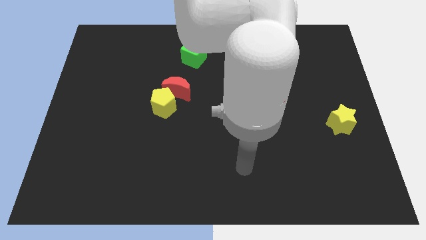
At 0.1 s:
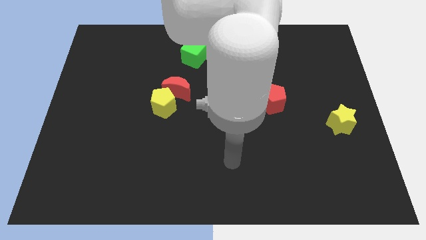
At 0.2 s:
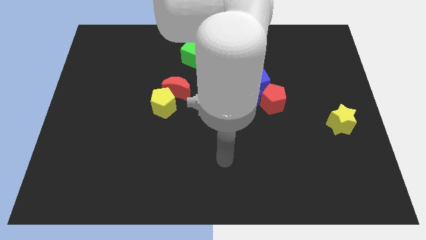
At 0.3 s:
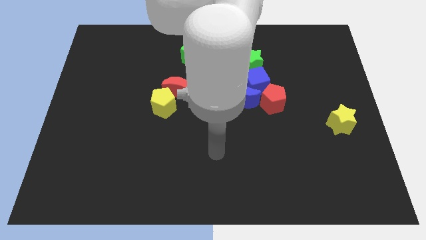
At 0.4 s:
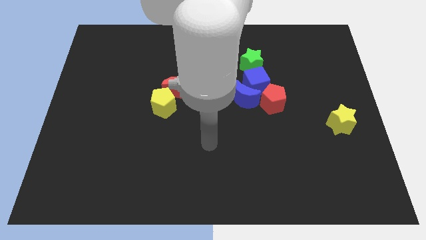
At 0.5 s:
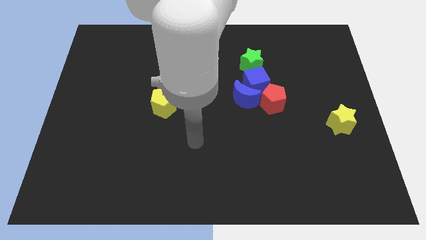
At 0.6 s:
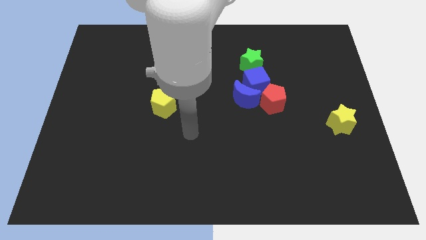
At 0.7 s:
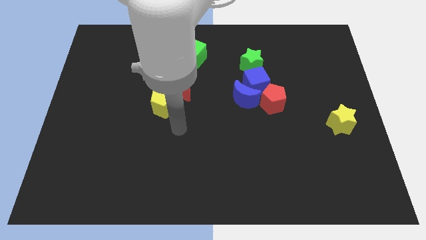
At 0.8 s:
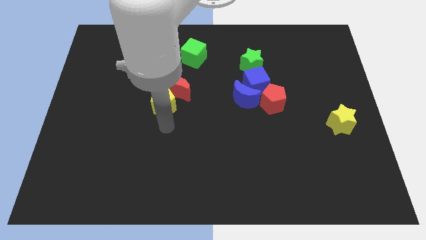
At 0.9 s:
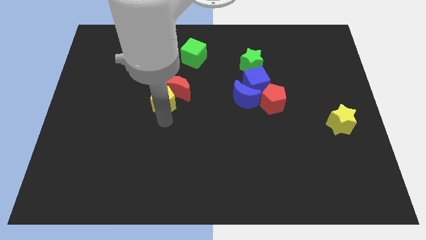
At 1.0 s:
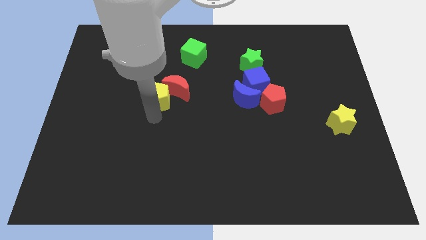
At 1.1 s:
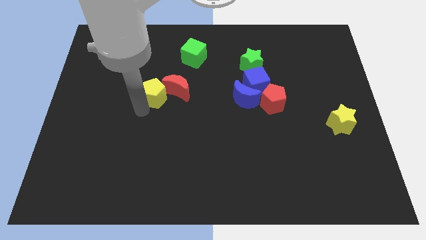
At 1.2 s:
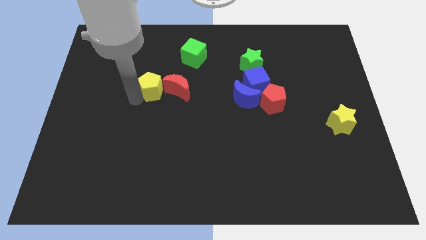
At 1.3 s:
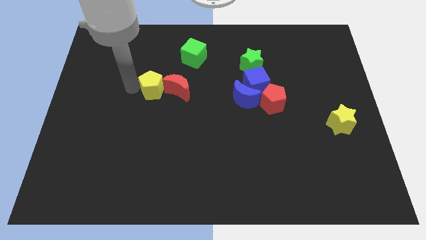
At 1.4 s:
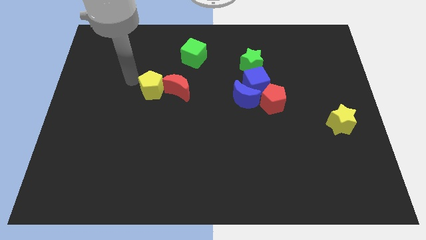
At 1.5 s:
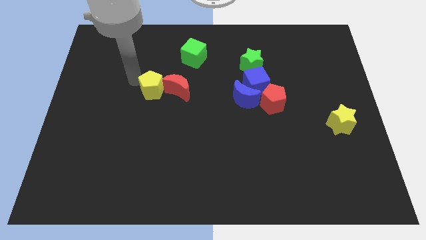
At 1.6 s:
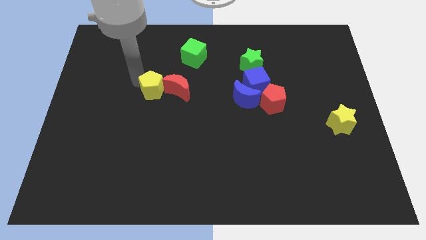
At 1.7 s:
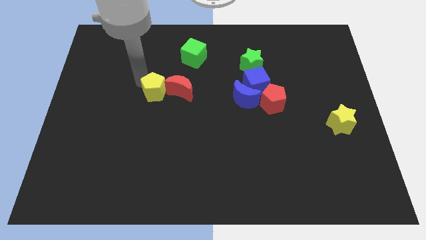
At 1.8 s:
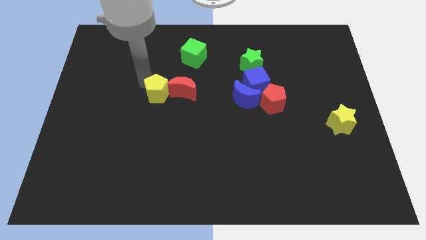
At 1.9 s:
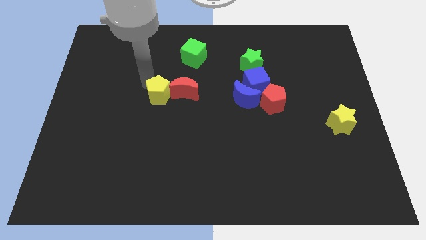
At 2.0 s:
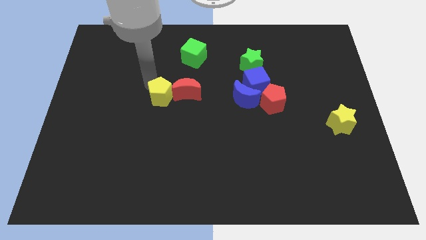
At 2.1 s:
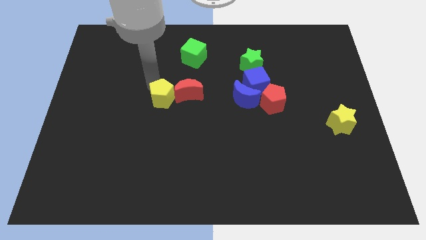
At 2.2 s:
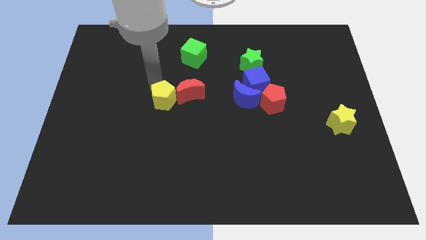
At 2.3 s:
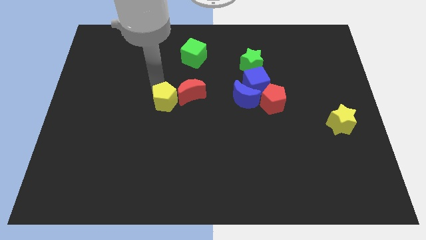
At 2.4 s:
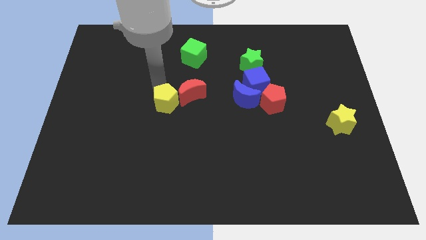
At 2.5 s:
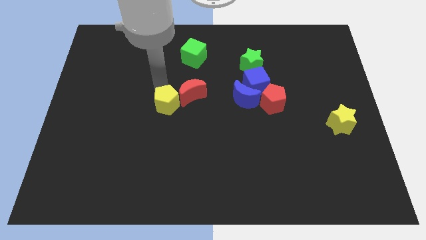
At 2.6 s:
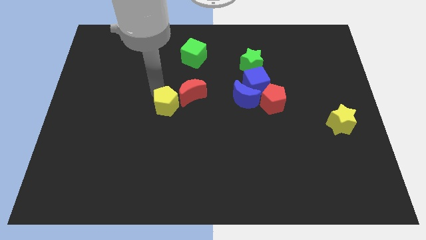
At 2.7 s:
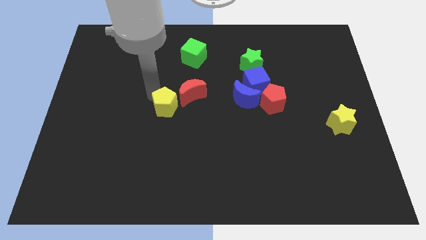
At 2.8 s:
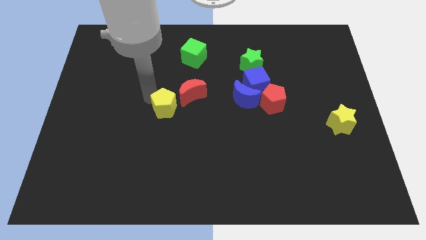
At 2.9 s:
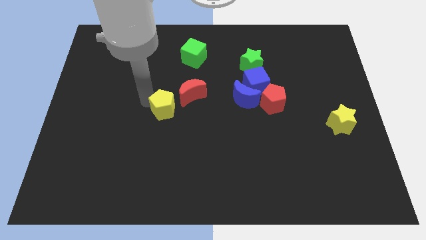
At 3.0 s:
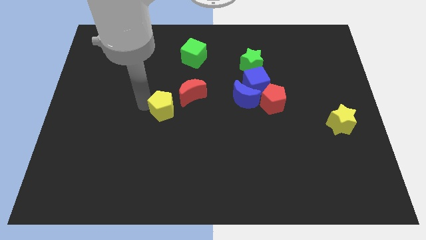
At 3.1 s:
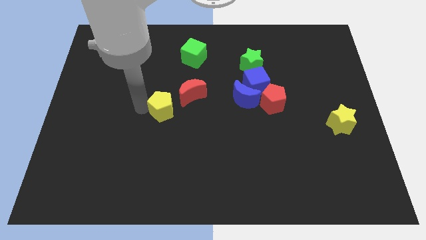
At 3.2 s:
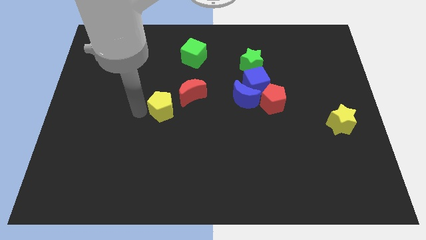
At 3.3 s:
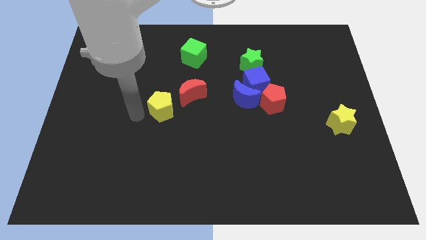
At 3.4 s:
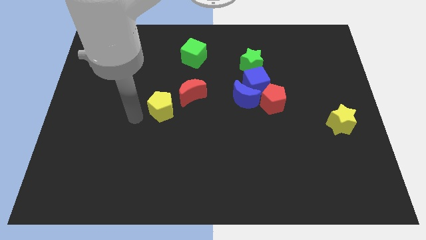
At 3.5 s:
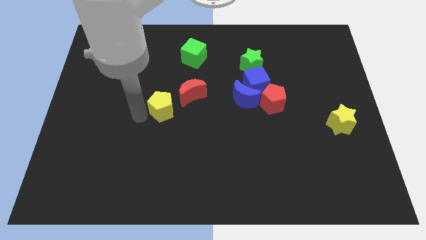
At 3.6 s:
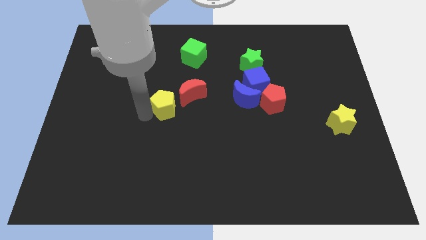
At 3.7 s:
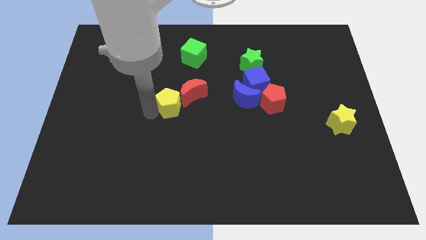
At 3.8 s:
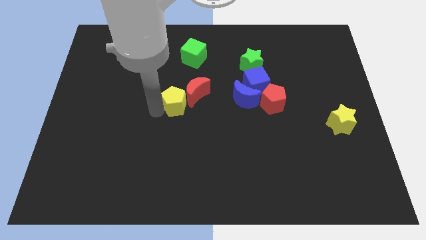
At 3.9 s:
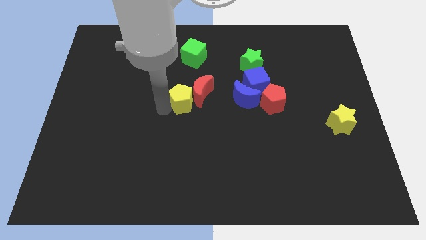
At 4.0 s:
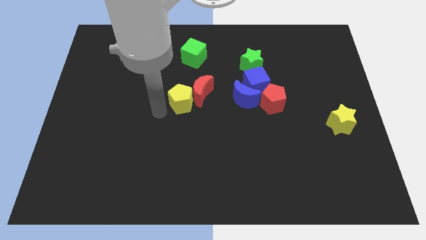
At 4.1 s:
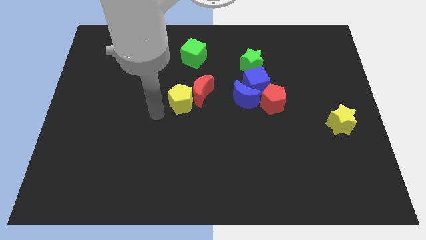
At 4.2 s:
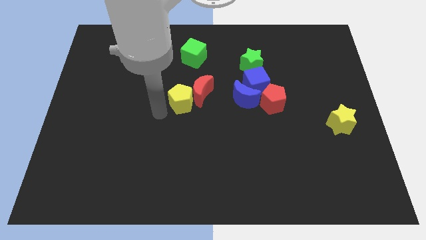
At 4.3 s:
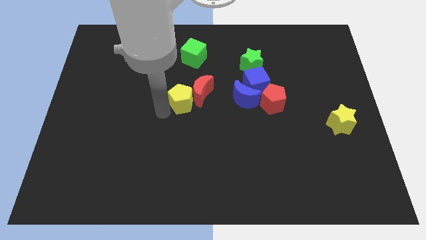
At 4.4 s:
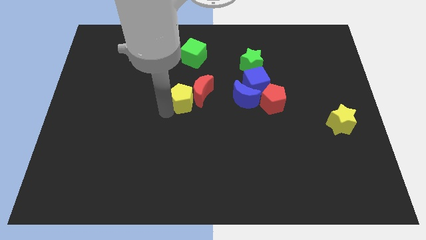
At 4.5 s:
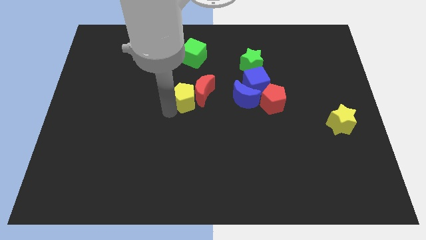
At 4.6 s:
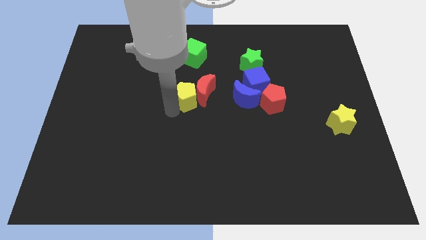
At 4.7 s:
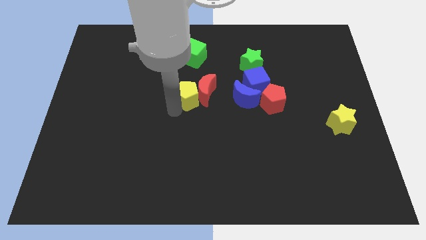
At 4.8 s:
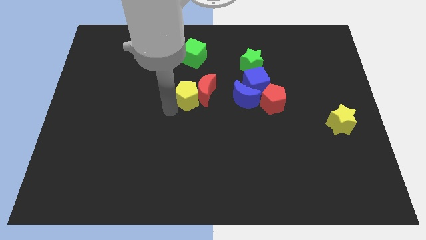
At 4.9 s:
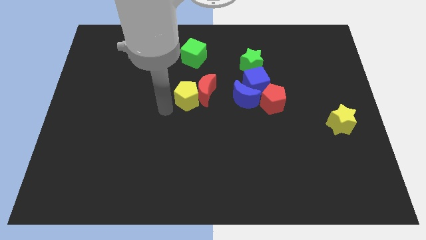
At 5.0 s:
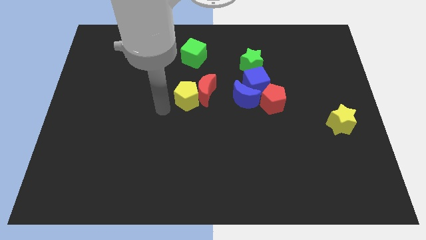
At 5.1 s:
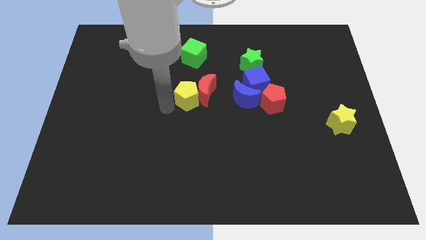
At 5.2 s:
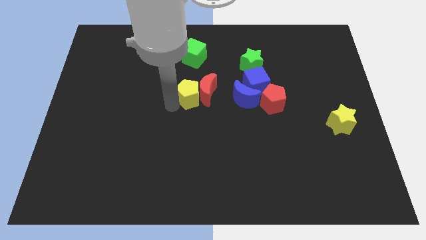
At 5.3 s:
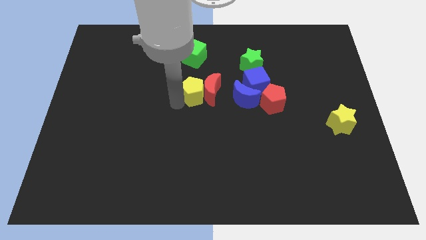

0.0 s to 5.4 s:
move the yellow pentagon upwards and to the right slightly

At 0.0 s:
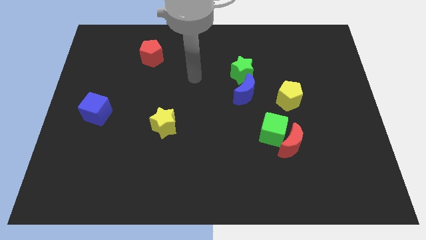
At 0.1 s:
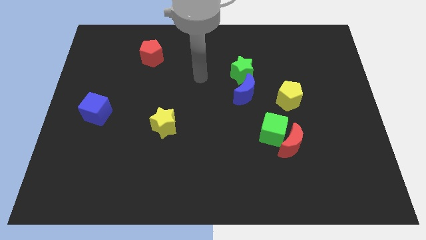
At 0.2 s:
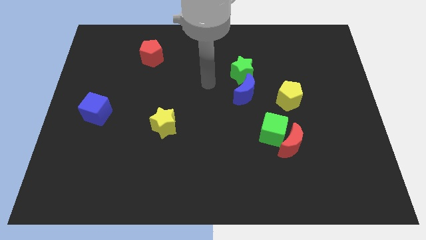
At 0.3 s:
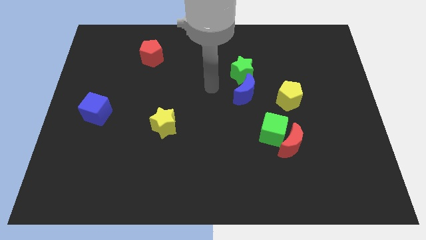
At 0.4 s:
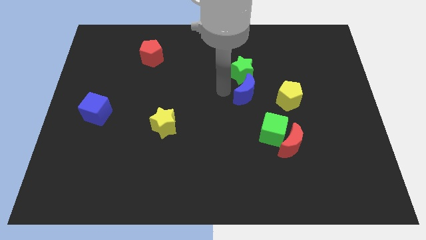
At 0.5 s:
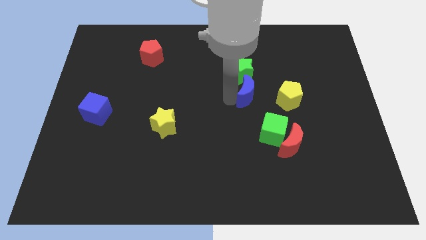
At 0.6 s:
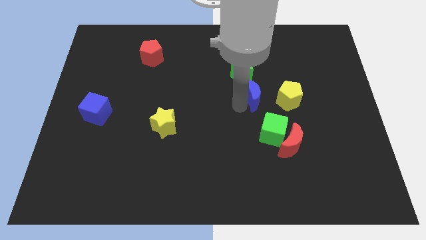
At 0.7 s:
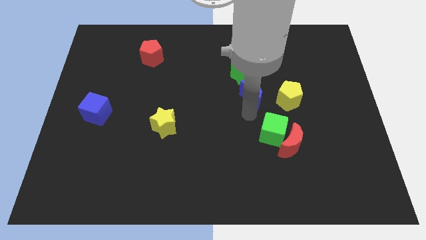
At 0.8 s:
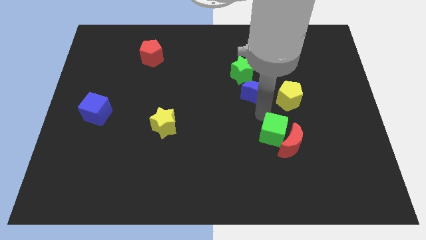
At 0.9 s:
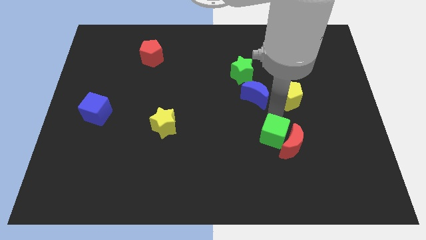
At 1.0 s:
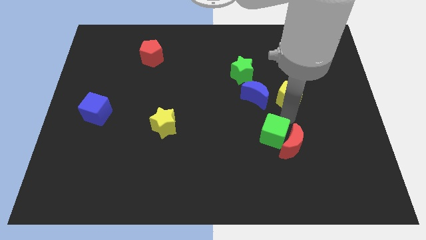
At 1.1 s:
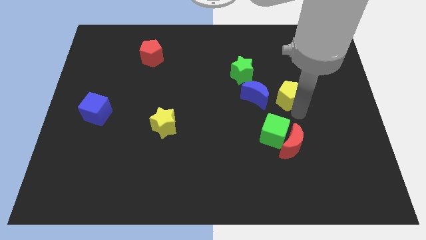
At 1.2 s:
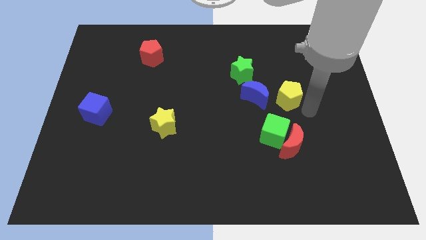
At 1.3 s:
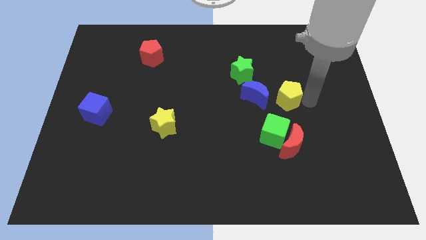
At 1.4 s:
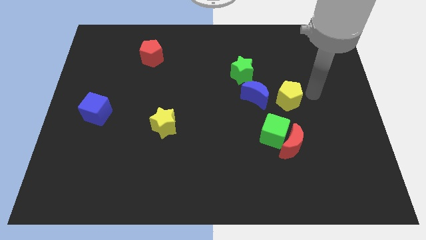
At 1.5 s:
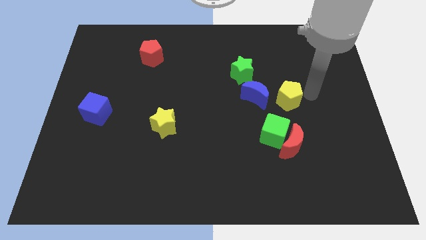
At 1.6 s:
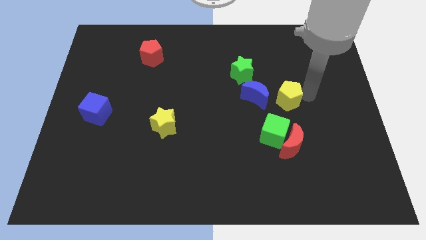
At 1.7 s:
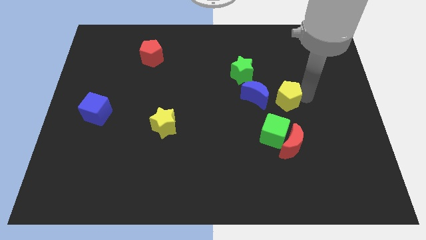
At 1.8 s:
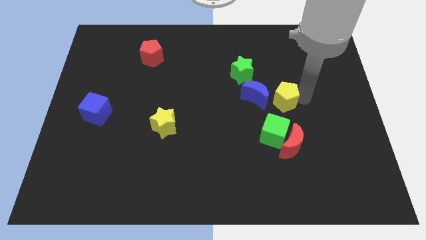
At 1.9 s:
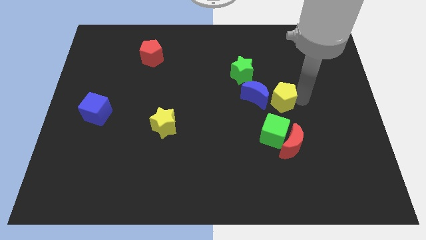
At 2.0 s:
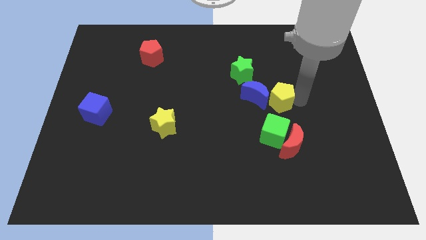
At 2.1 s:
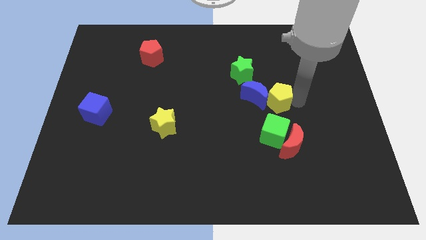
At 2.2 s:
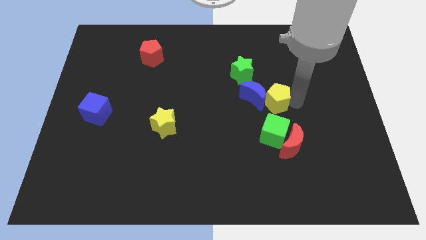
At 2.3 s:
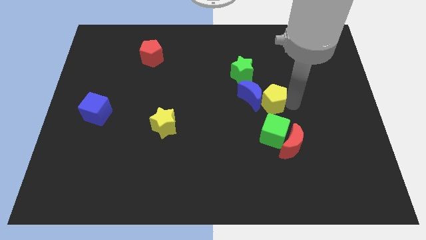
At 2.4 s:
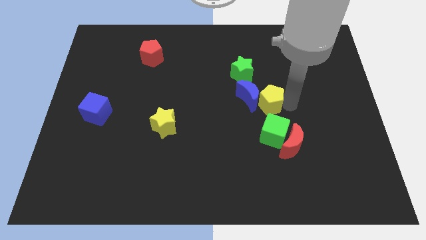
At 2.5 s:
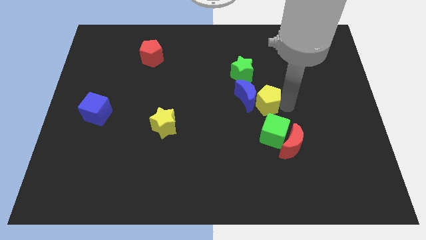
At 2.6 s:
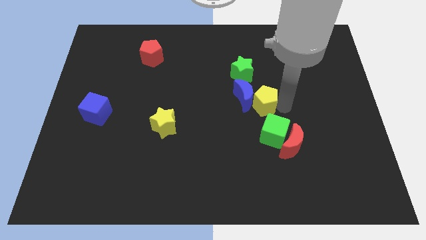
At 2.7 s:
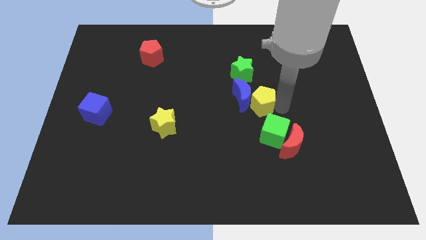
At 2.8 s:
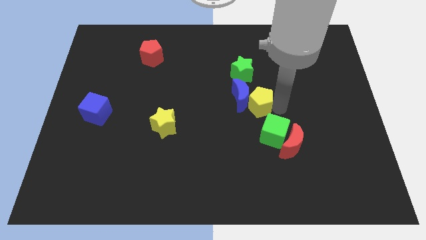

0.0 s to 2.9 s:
push the yellow pentagon left a little bit
